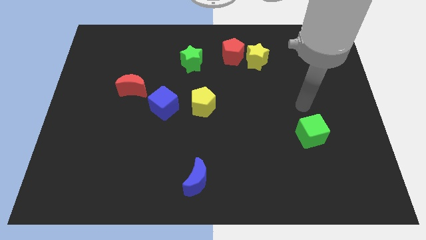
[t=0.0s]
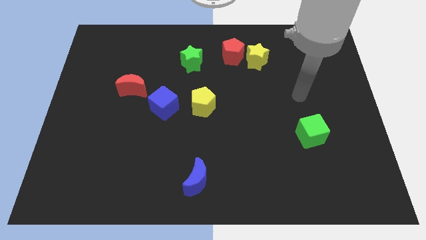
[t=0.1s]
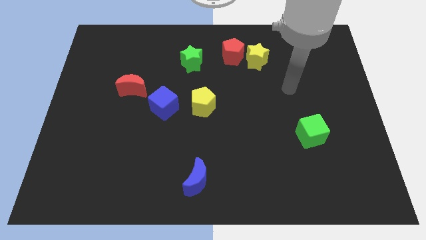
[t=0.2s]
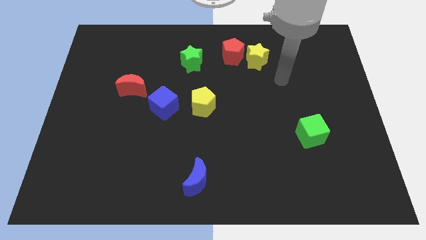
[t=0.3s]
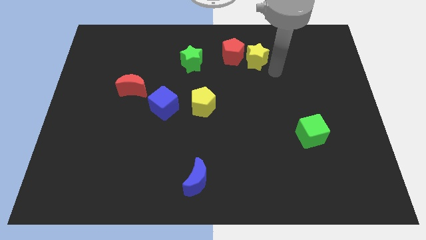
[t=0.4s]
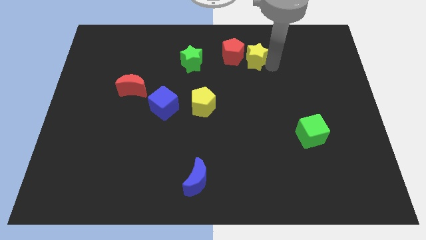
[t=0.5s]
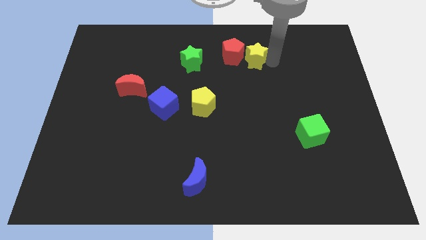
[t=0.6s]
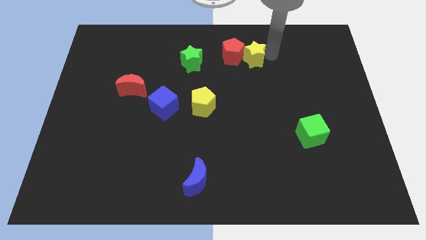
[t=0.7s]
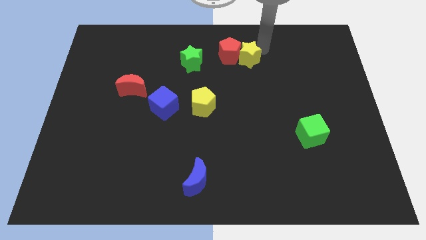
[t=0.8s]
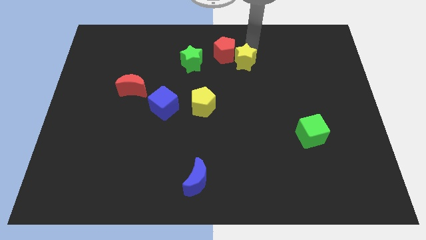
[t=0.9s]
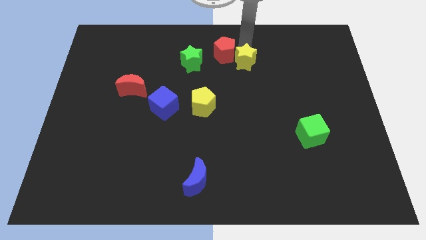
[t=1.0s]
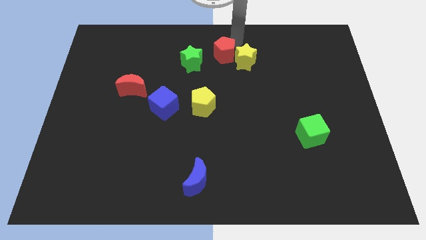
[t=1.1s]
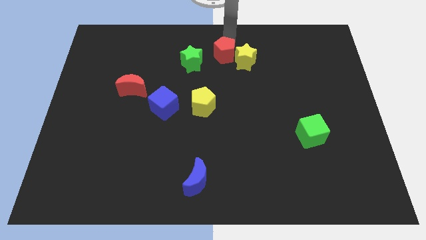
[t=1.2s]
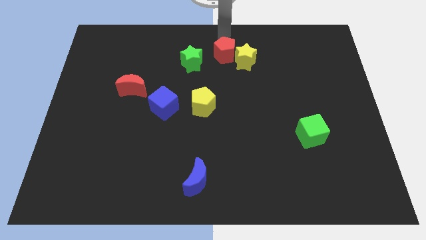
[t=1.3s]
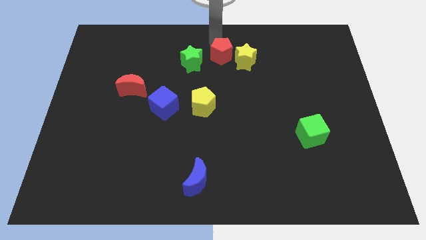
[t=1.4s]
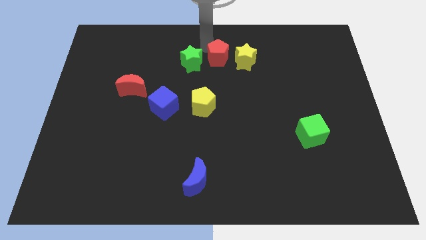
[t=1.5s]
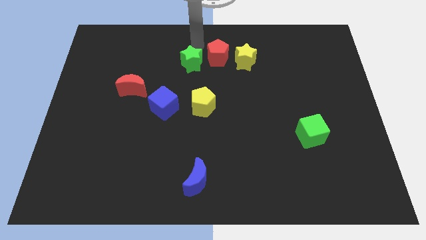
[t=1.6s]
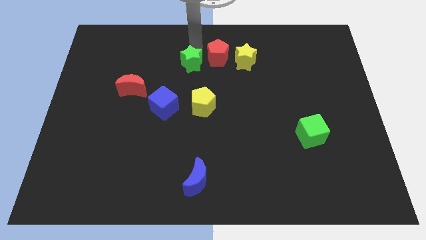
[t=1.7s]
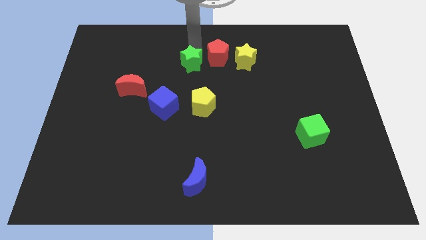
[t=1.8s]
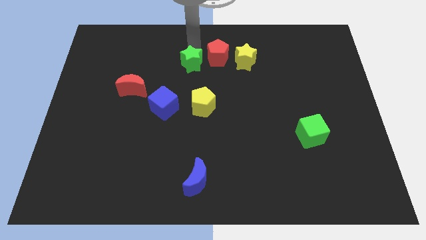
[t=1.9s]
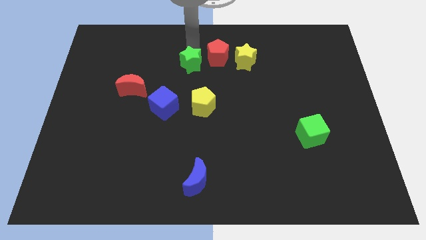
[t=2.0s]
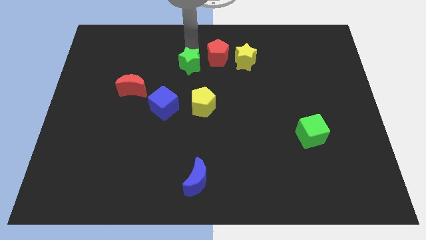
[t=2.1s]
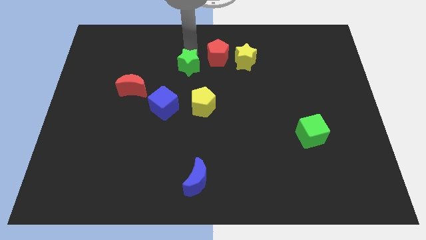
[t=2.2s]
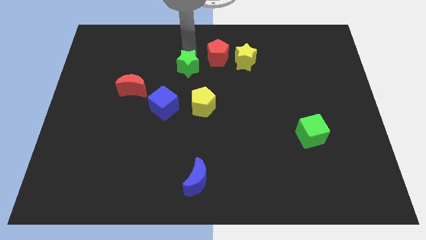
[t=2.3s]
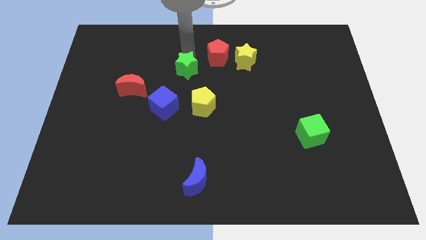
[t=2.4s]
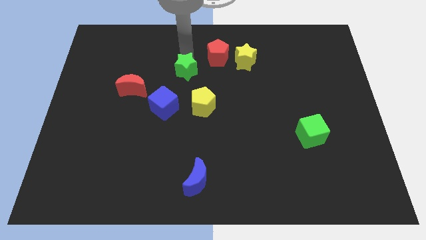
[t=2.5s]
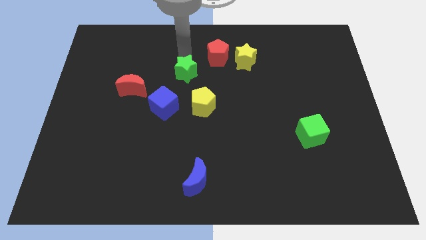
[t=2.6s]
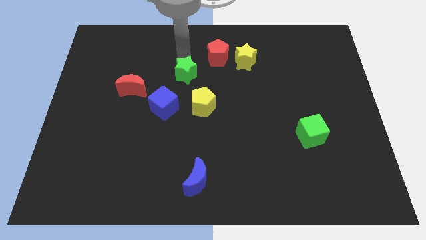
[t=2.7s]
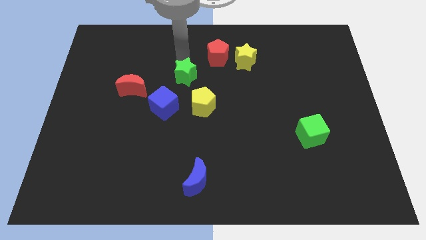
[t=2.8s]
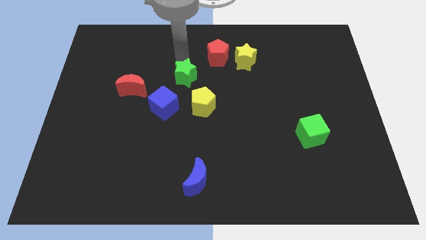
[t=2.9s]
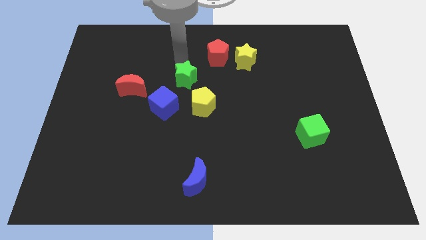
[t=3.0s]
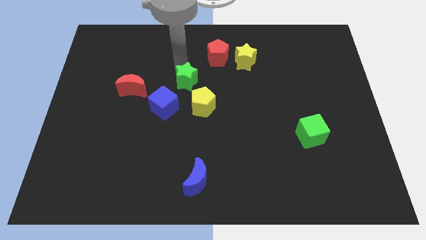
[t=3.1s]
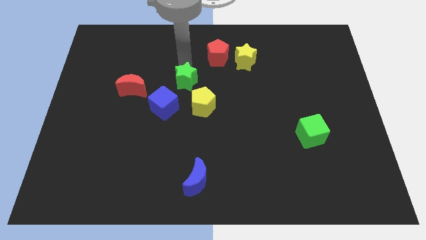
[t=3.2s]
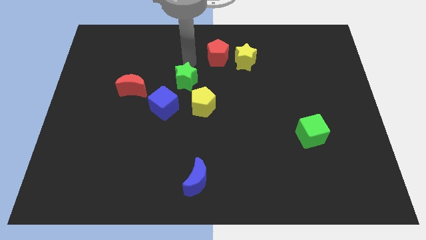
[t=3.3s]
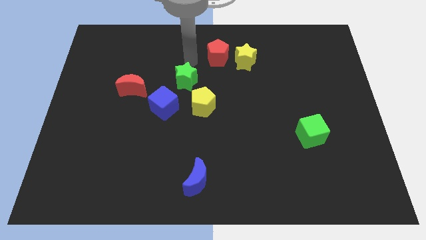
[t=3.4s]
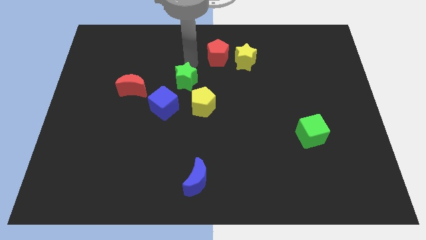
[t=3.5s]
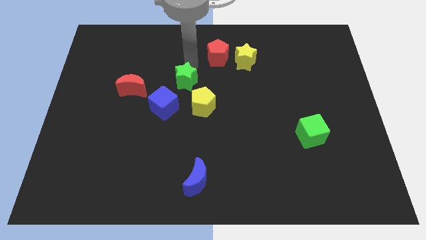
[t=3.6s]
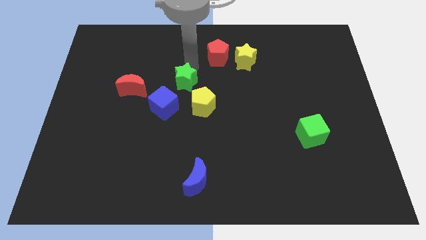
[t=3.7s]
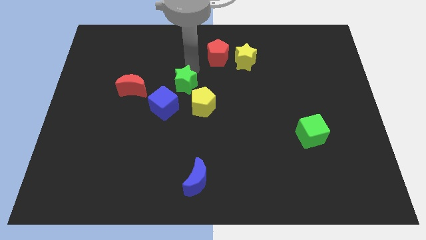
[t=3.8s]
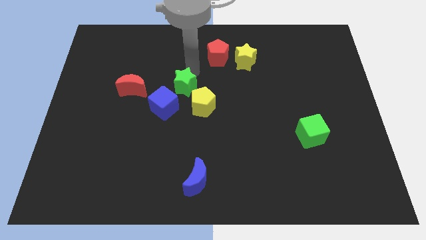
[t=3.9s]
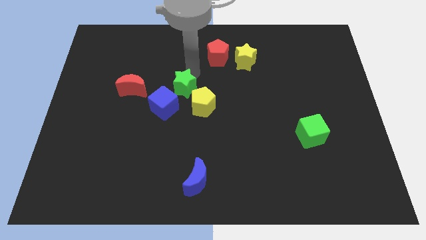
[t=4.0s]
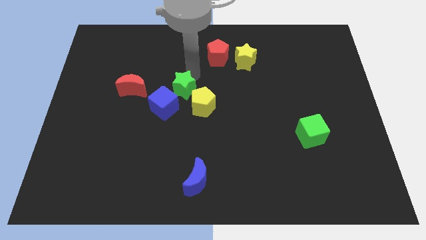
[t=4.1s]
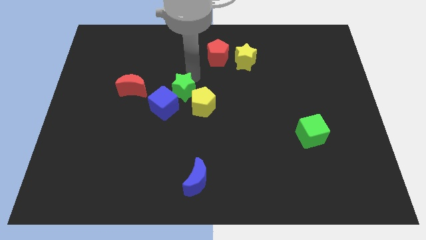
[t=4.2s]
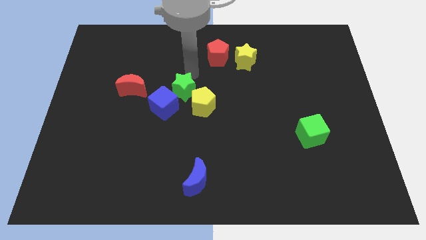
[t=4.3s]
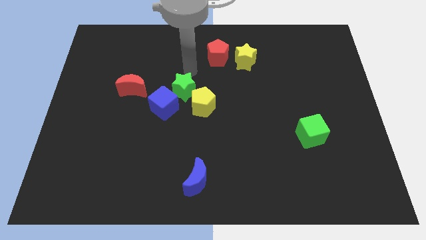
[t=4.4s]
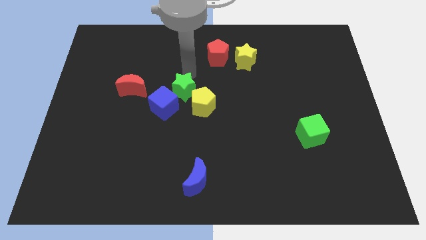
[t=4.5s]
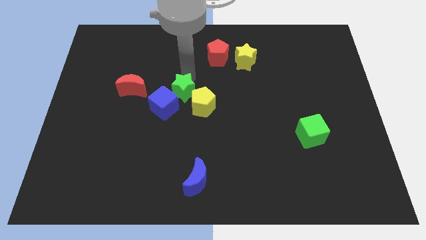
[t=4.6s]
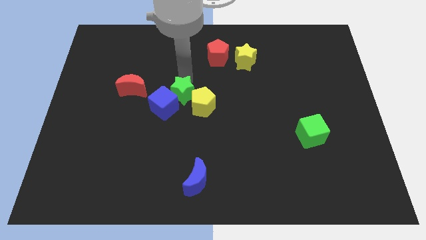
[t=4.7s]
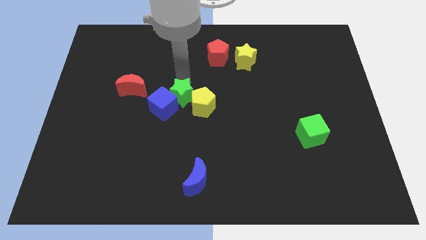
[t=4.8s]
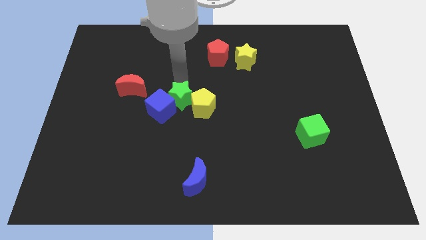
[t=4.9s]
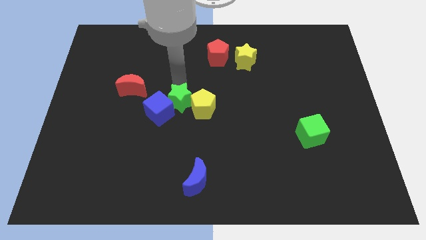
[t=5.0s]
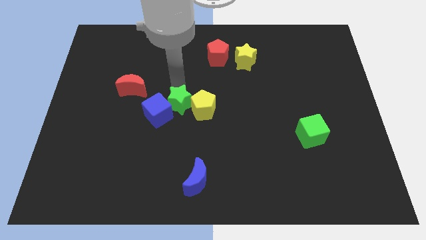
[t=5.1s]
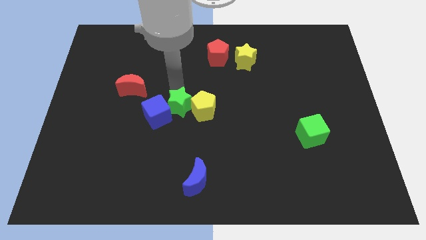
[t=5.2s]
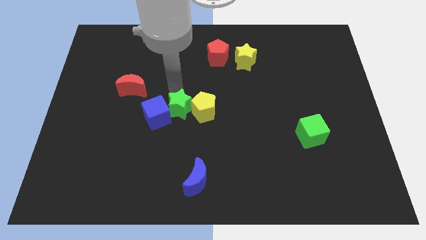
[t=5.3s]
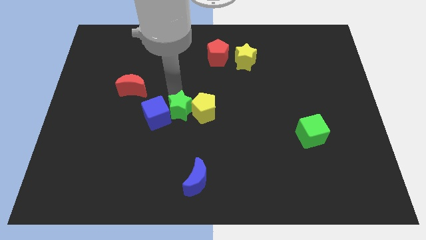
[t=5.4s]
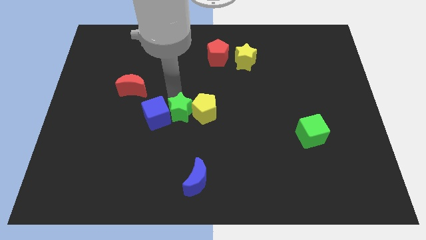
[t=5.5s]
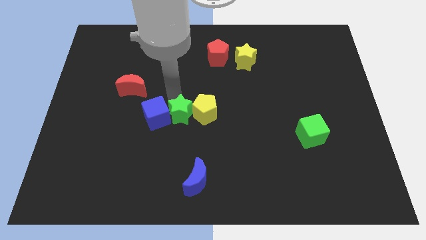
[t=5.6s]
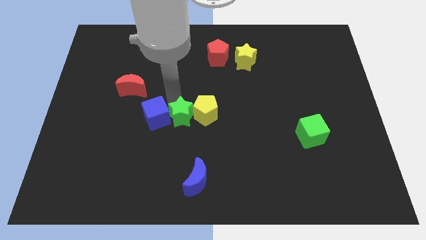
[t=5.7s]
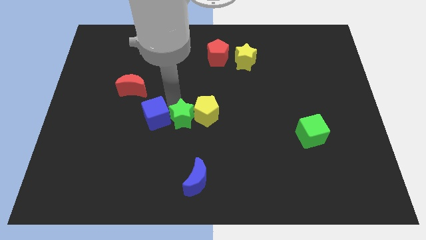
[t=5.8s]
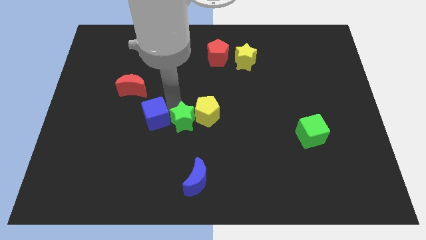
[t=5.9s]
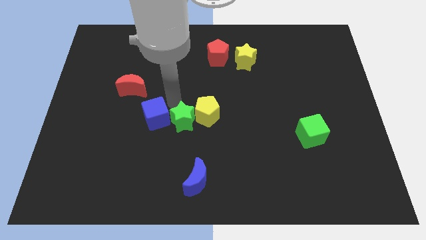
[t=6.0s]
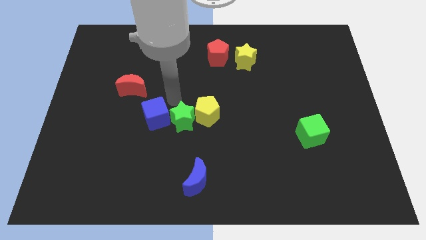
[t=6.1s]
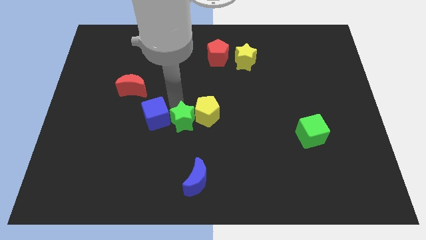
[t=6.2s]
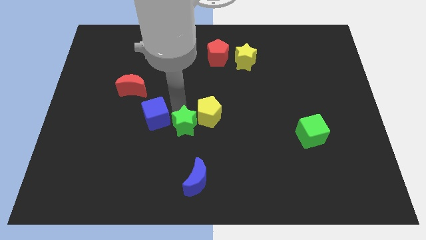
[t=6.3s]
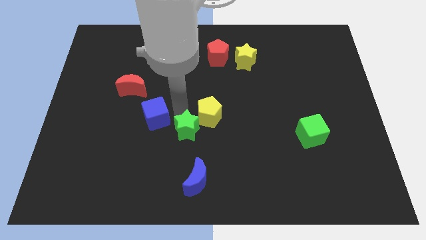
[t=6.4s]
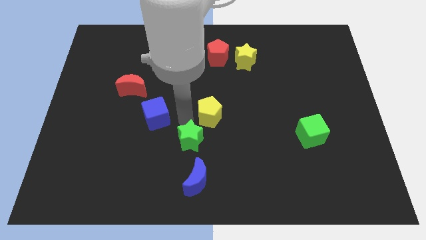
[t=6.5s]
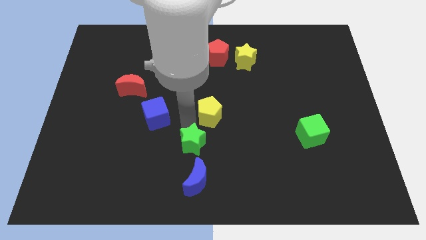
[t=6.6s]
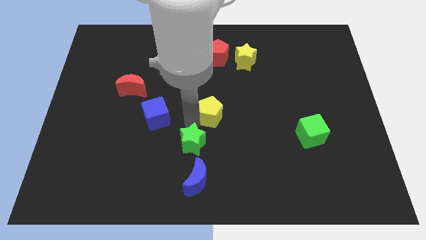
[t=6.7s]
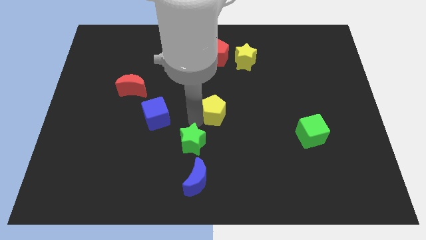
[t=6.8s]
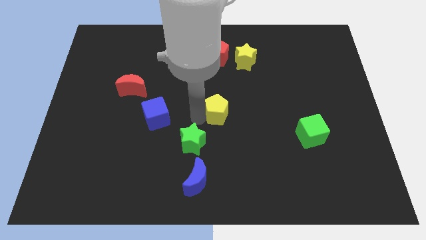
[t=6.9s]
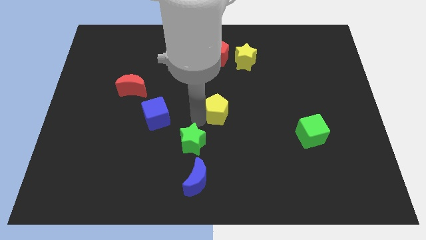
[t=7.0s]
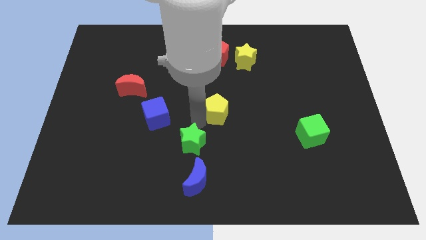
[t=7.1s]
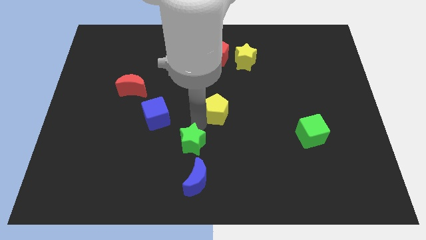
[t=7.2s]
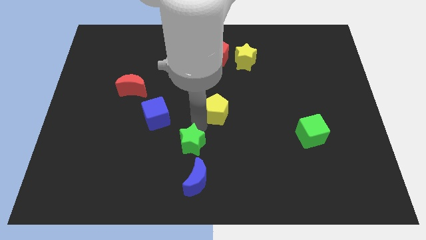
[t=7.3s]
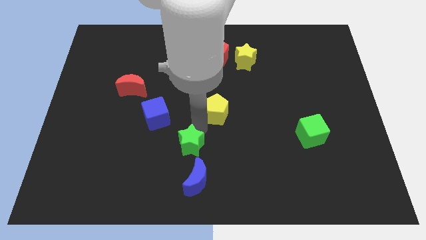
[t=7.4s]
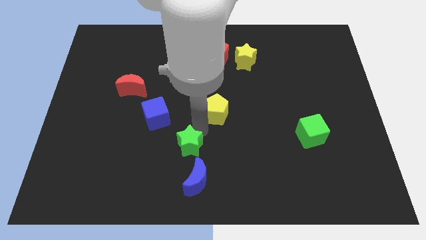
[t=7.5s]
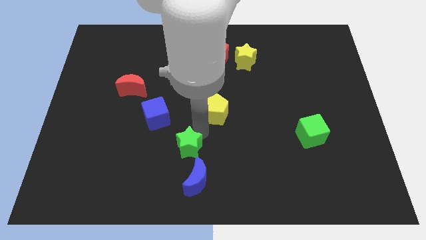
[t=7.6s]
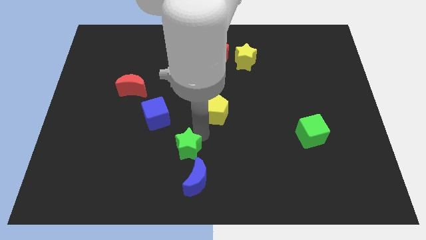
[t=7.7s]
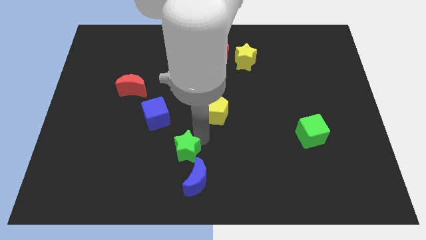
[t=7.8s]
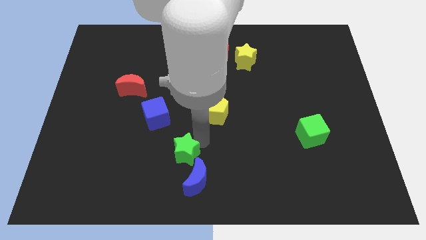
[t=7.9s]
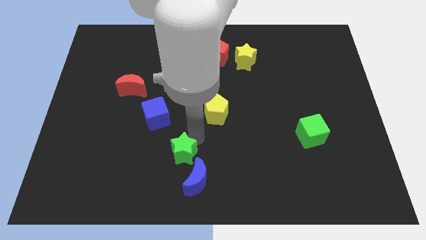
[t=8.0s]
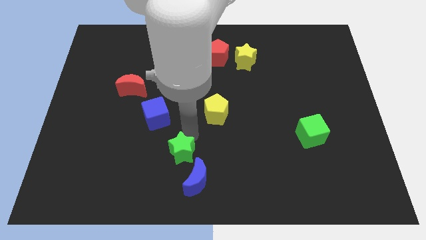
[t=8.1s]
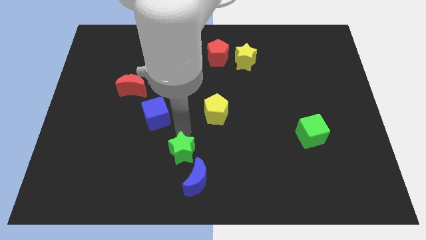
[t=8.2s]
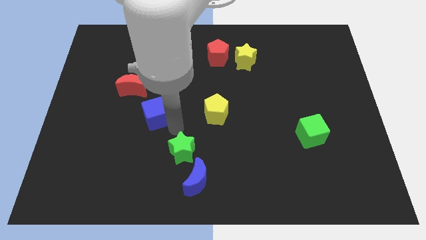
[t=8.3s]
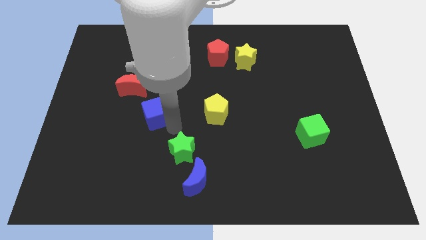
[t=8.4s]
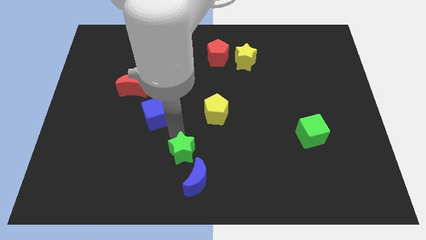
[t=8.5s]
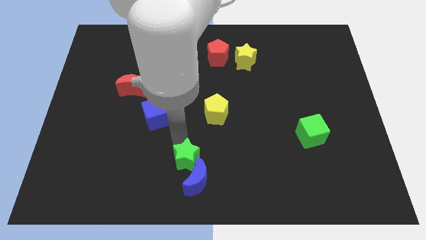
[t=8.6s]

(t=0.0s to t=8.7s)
slide the green star to the blue moon
